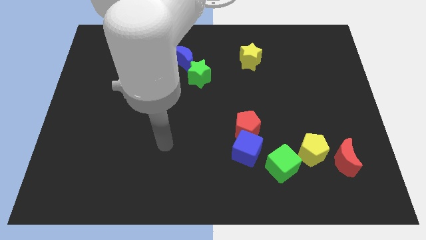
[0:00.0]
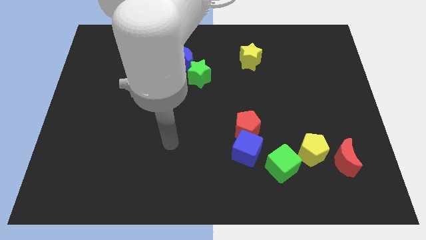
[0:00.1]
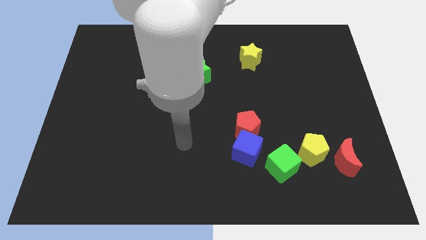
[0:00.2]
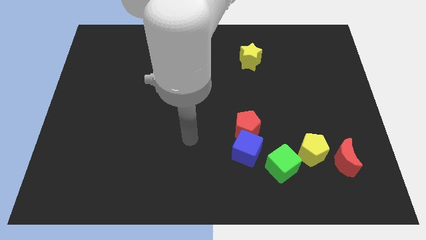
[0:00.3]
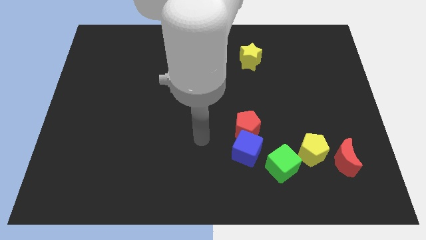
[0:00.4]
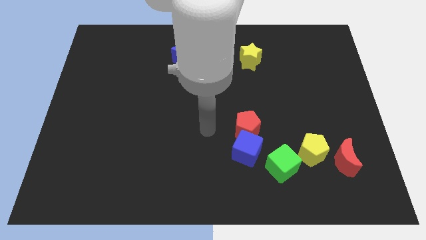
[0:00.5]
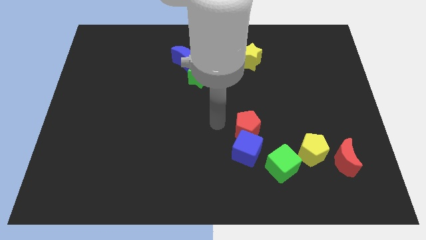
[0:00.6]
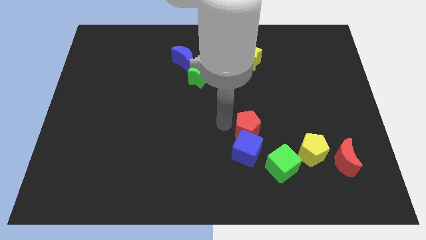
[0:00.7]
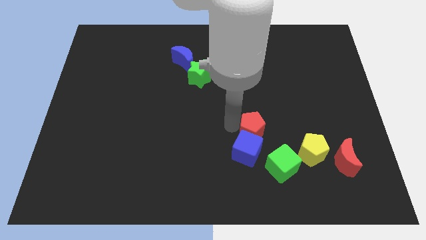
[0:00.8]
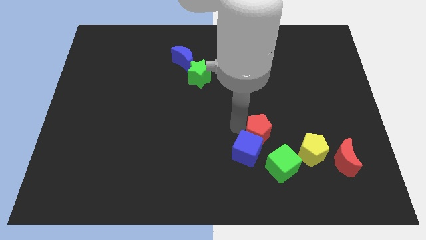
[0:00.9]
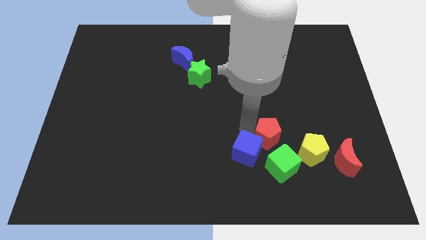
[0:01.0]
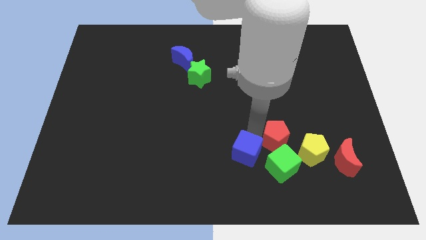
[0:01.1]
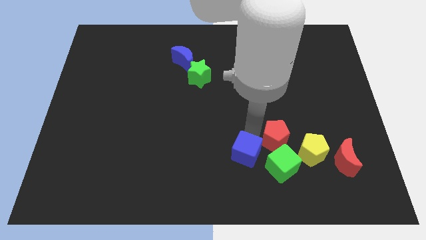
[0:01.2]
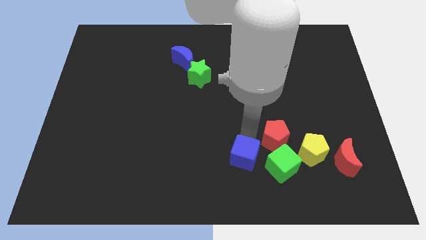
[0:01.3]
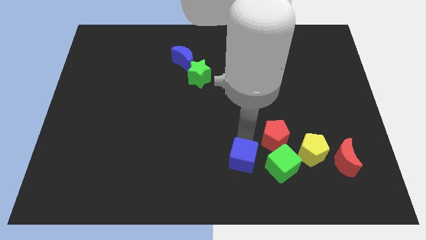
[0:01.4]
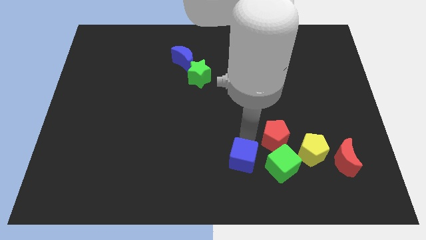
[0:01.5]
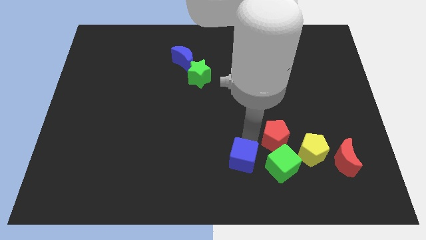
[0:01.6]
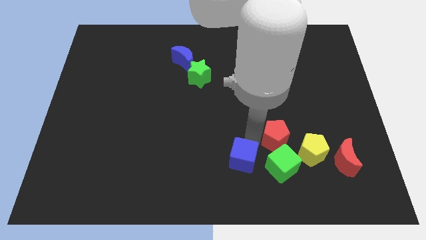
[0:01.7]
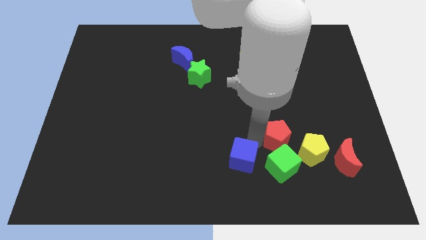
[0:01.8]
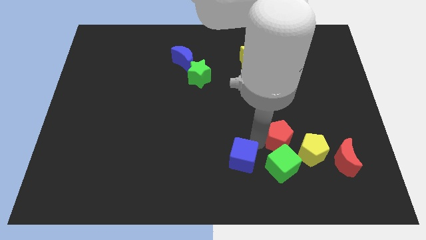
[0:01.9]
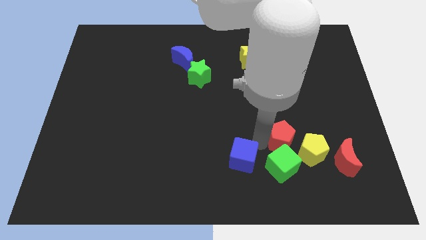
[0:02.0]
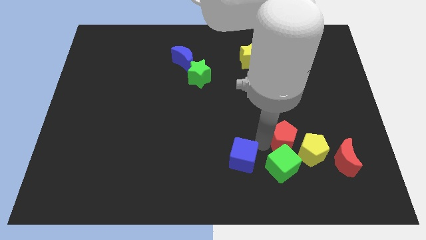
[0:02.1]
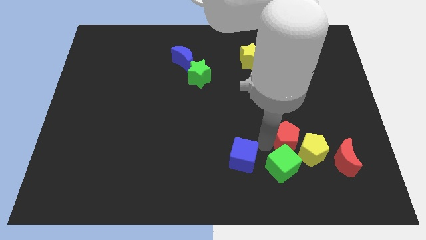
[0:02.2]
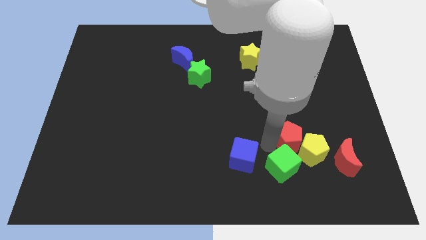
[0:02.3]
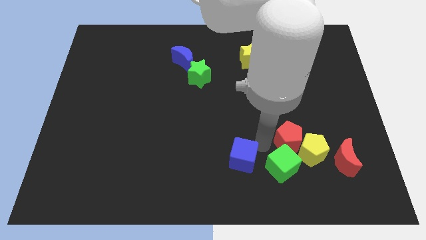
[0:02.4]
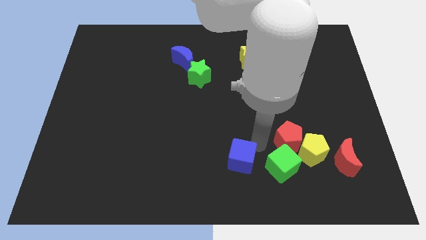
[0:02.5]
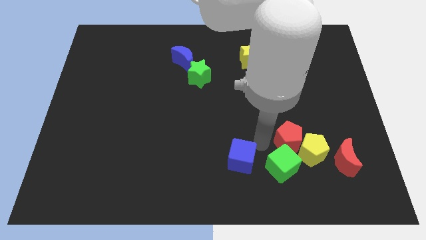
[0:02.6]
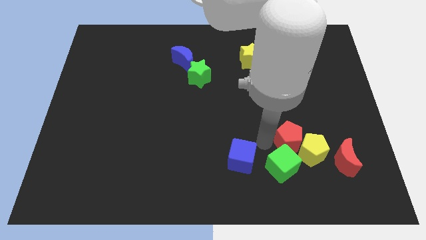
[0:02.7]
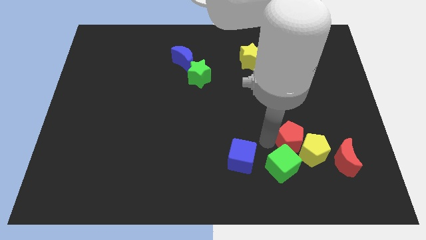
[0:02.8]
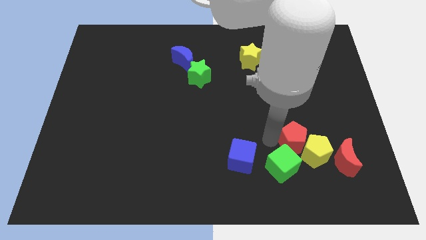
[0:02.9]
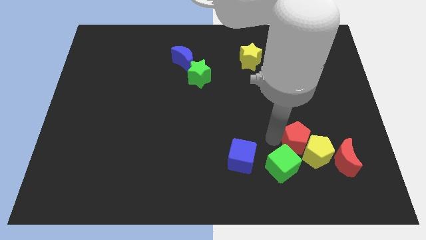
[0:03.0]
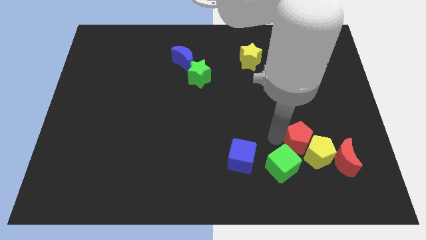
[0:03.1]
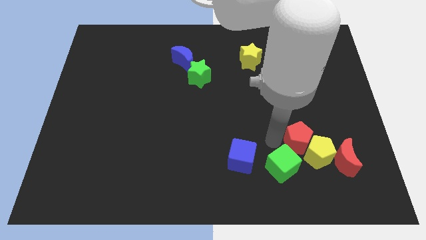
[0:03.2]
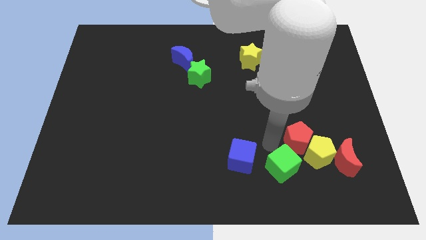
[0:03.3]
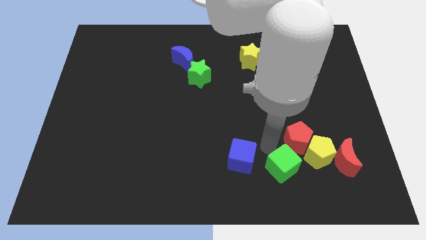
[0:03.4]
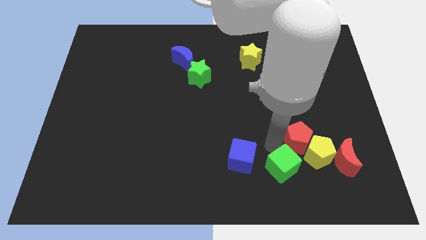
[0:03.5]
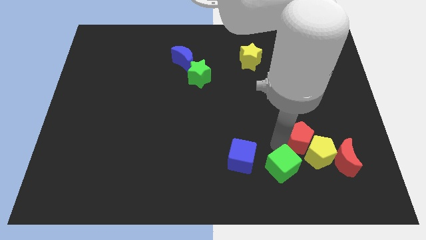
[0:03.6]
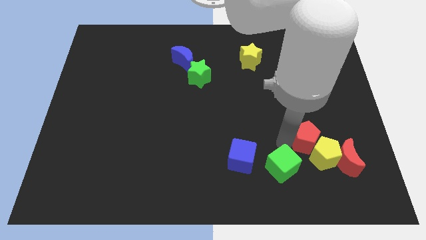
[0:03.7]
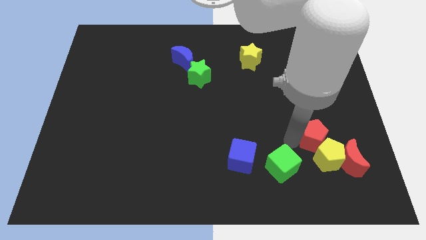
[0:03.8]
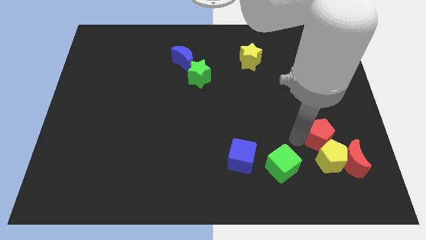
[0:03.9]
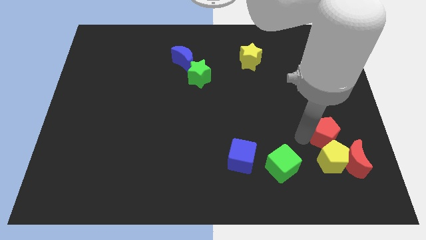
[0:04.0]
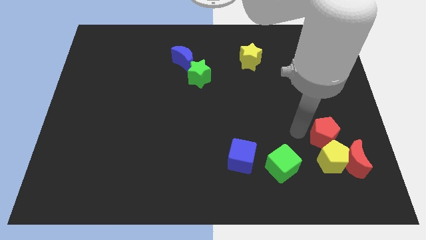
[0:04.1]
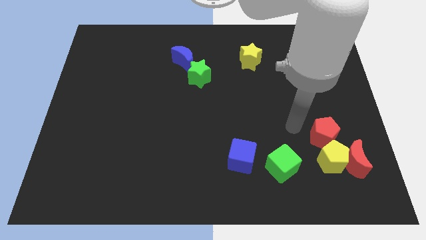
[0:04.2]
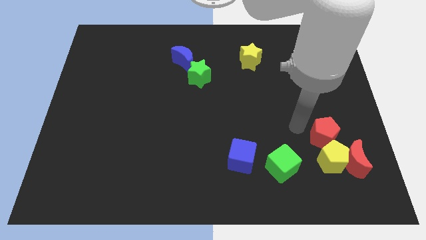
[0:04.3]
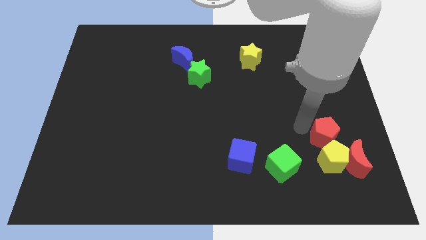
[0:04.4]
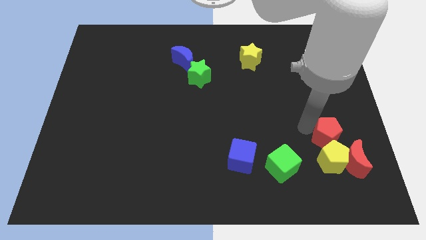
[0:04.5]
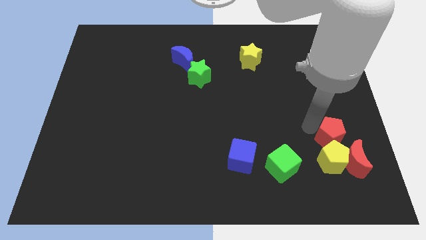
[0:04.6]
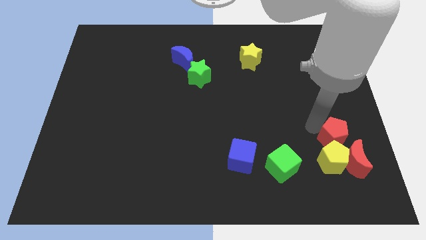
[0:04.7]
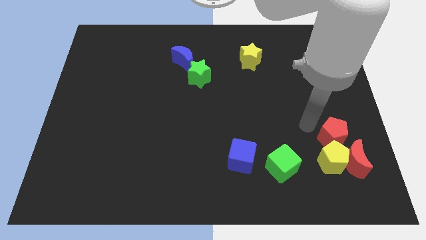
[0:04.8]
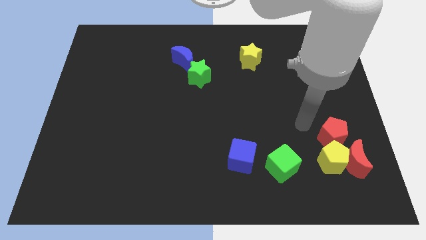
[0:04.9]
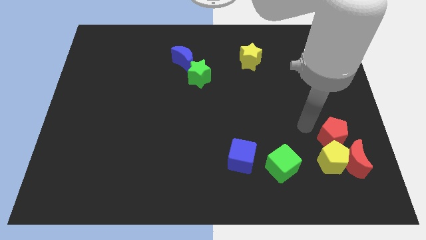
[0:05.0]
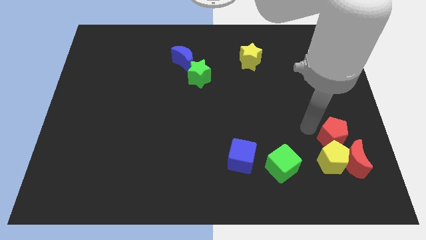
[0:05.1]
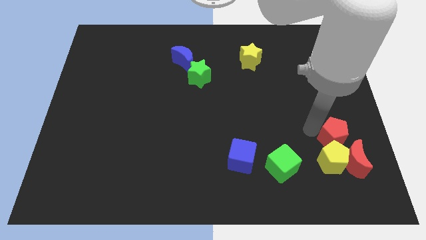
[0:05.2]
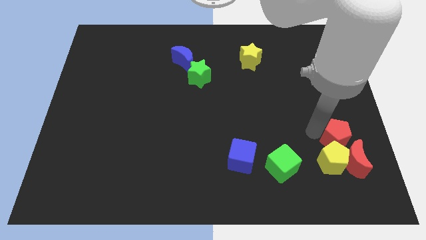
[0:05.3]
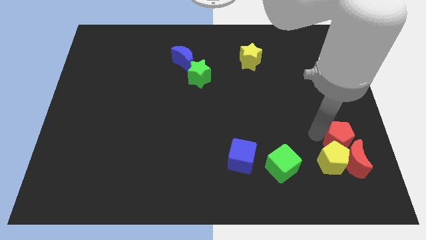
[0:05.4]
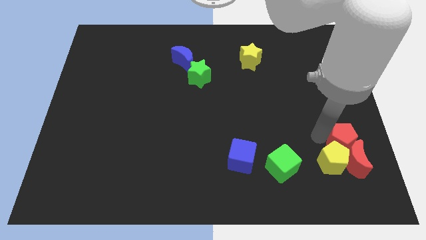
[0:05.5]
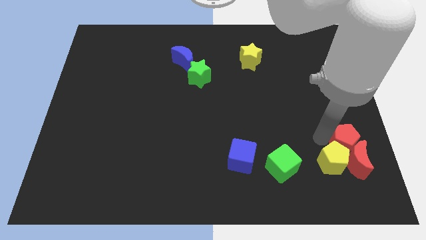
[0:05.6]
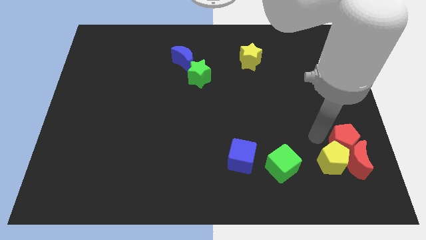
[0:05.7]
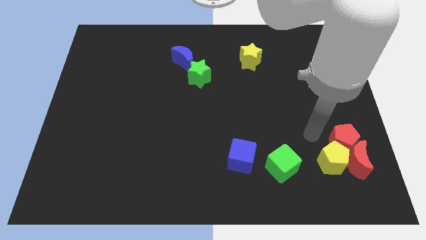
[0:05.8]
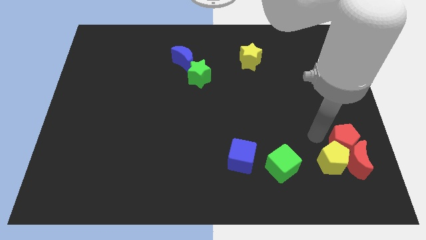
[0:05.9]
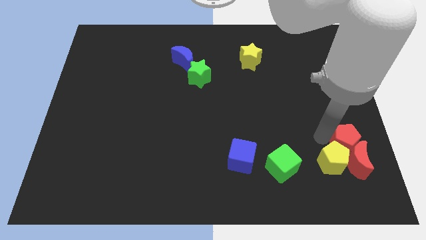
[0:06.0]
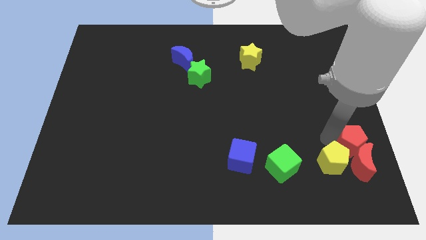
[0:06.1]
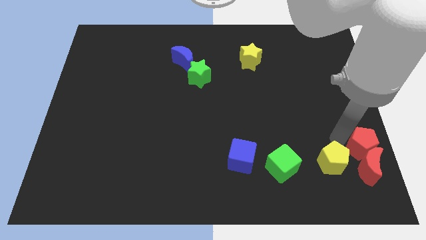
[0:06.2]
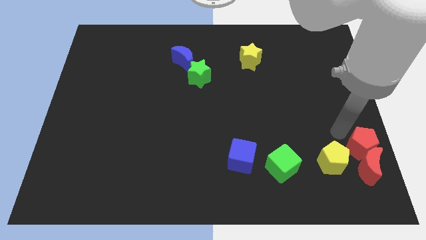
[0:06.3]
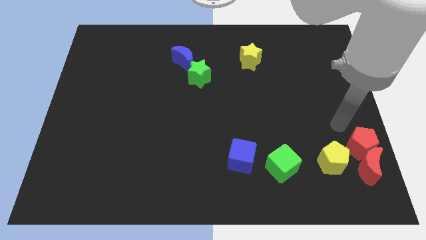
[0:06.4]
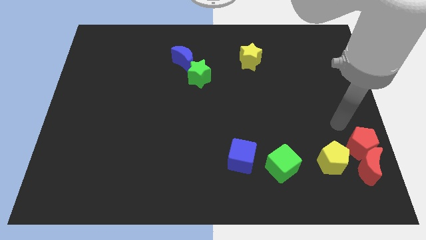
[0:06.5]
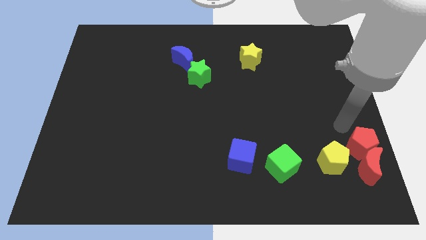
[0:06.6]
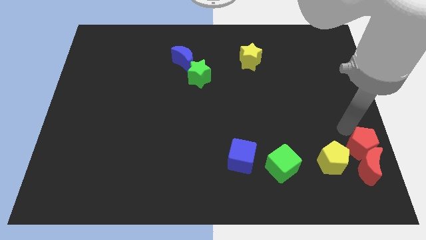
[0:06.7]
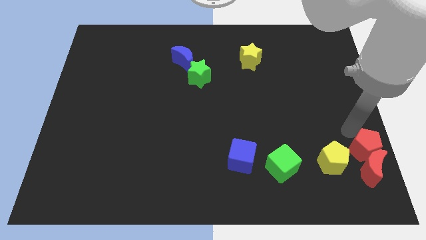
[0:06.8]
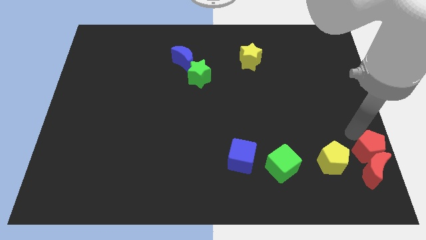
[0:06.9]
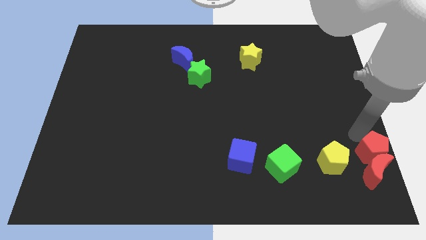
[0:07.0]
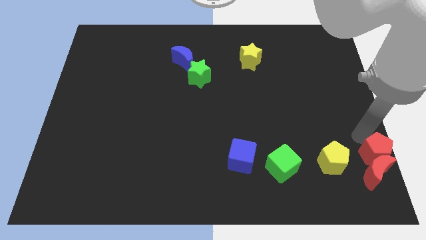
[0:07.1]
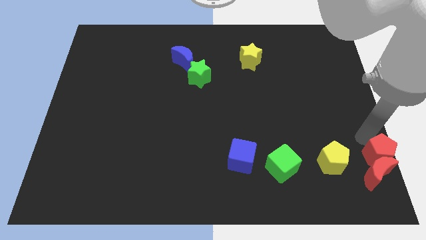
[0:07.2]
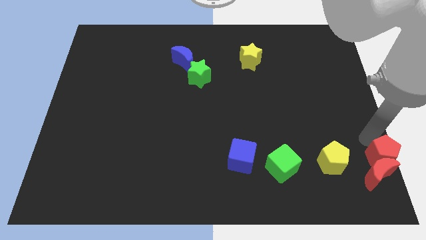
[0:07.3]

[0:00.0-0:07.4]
put the red pentagon to the bottom right of the board
